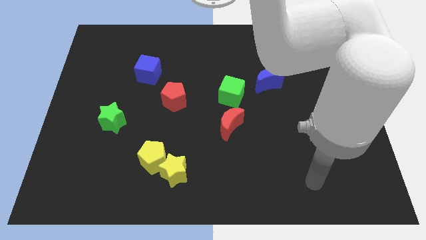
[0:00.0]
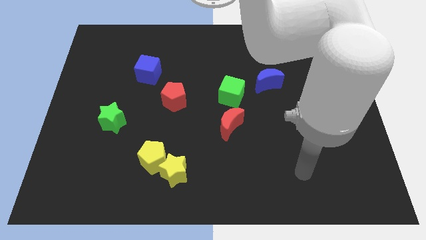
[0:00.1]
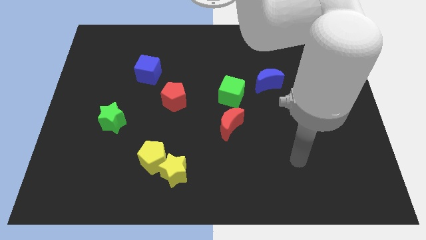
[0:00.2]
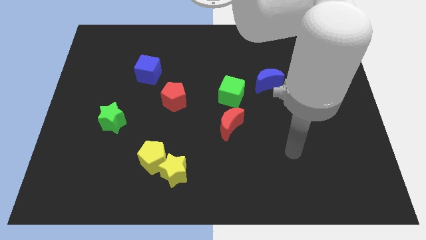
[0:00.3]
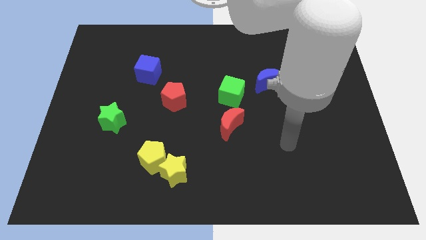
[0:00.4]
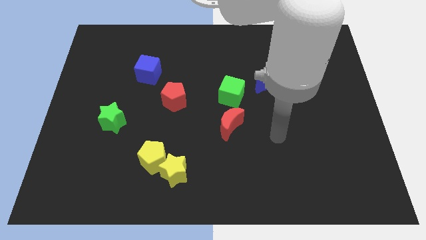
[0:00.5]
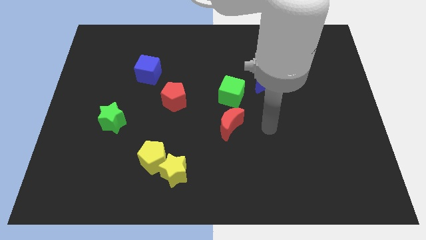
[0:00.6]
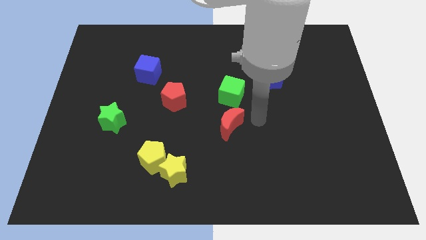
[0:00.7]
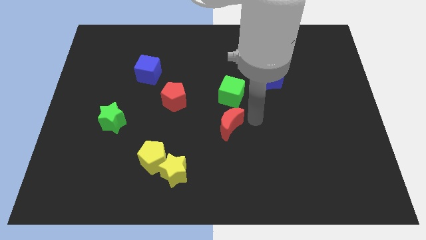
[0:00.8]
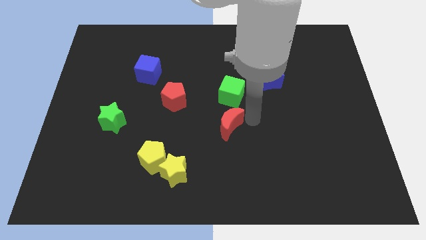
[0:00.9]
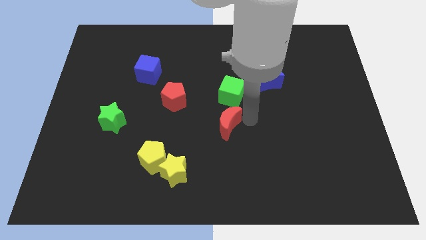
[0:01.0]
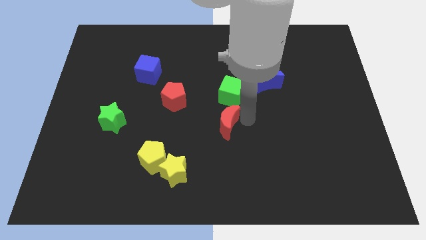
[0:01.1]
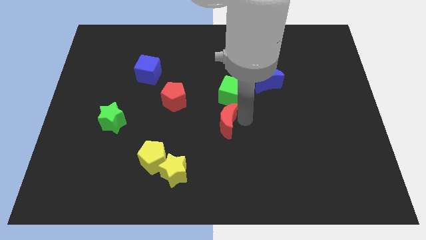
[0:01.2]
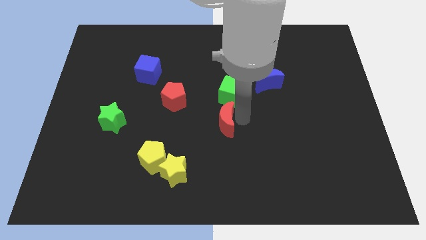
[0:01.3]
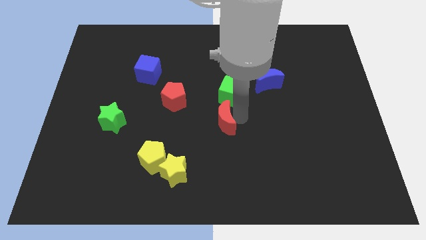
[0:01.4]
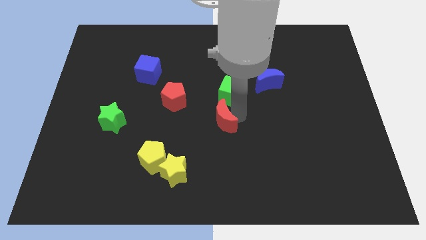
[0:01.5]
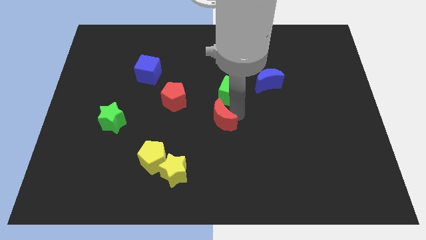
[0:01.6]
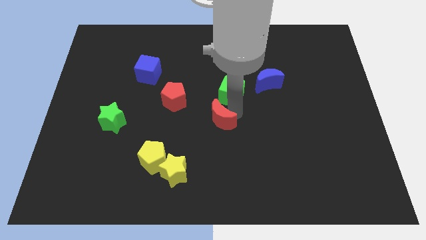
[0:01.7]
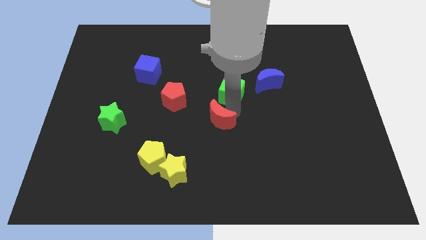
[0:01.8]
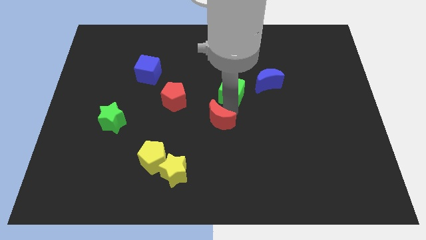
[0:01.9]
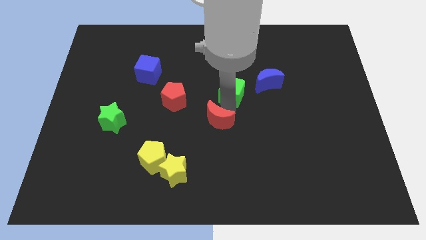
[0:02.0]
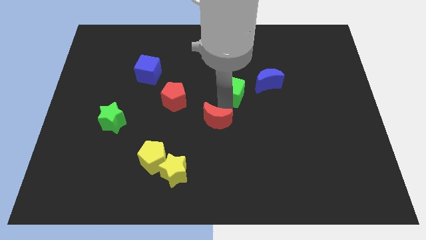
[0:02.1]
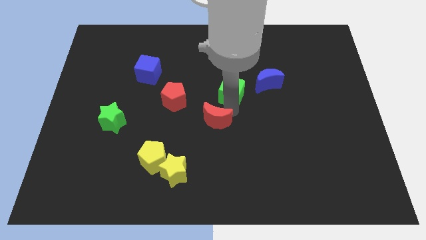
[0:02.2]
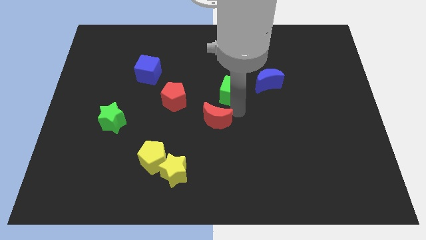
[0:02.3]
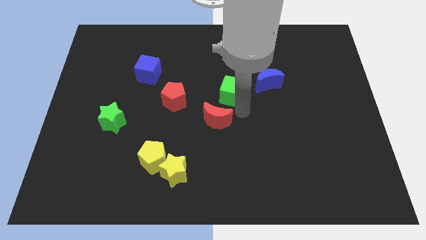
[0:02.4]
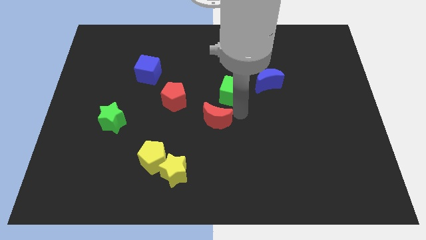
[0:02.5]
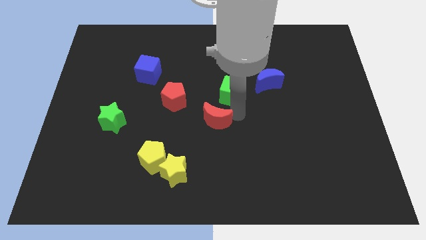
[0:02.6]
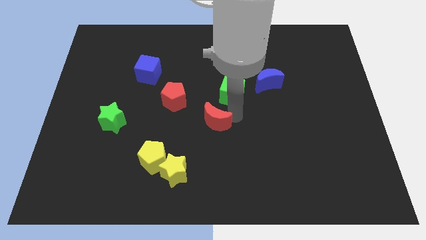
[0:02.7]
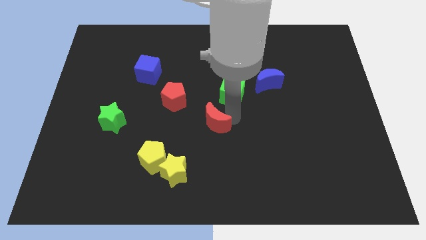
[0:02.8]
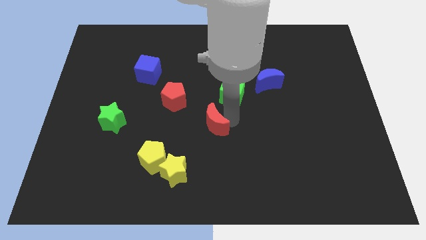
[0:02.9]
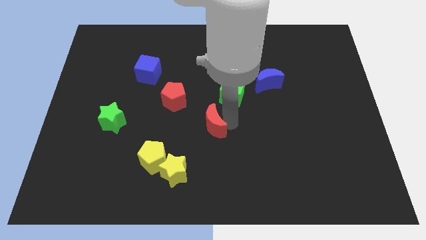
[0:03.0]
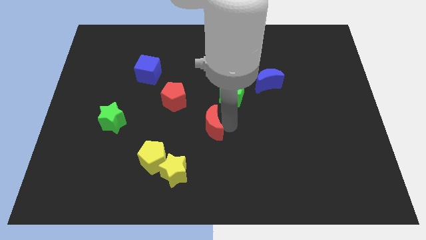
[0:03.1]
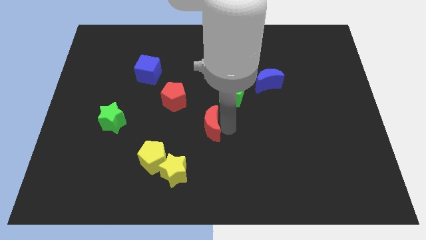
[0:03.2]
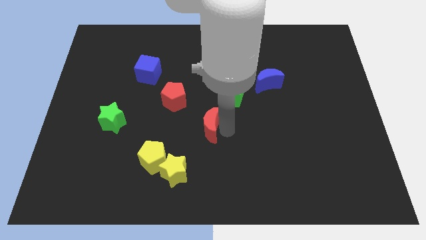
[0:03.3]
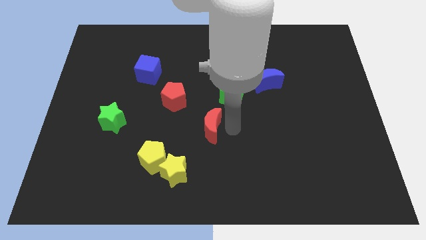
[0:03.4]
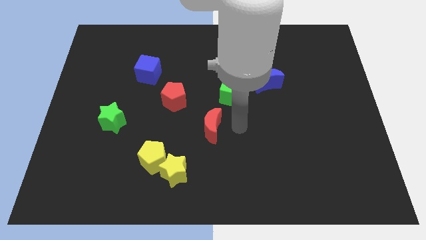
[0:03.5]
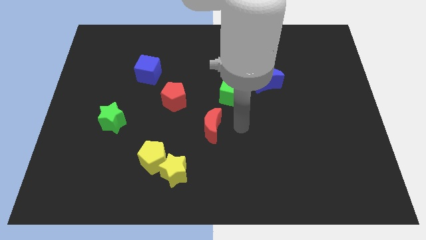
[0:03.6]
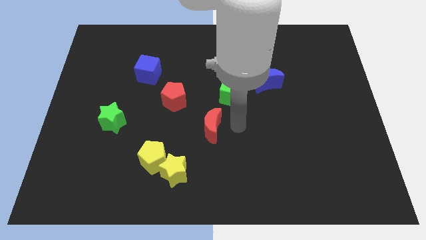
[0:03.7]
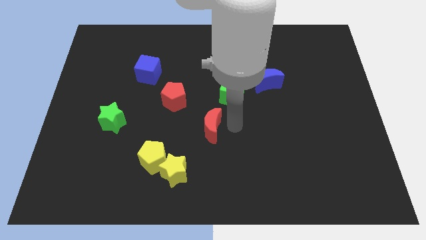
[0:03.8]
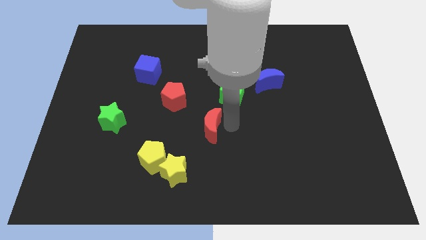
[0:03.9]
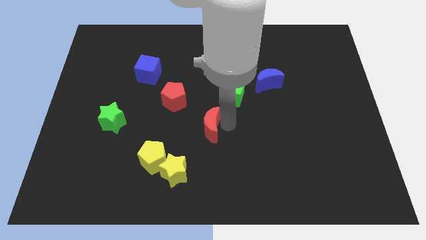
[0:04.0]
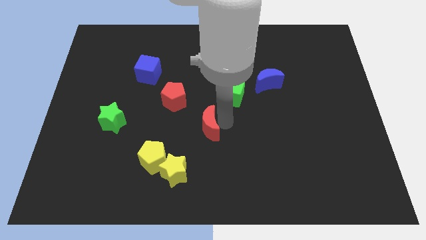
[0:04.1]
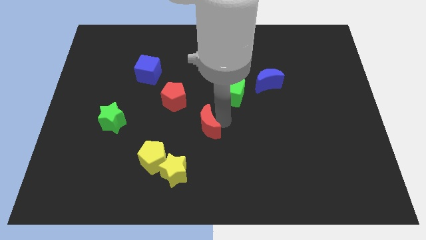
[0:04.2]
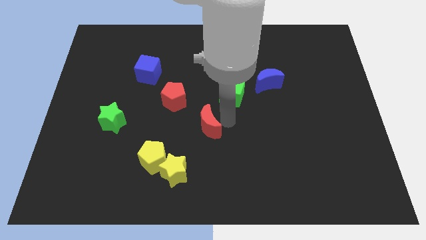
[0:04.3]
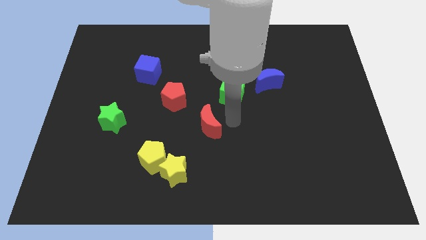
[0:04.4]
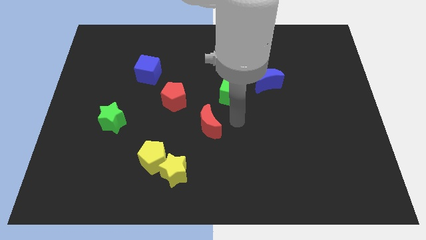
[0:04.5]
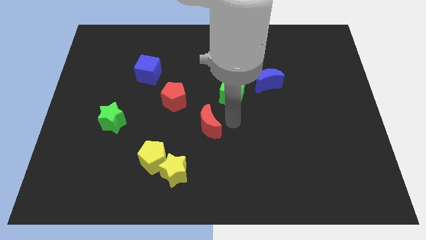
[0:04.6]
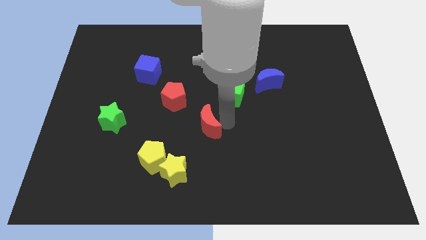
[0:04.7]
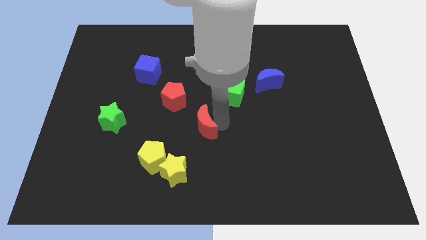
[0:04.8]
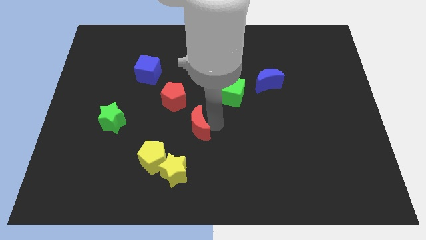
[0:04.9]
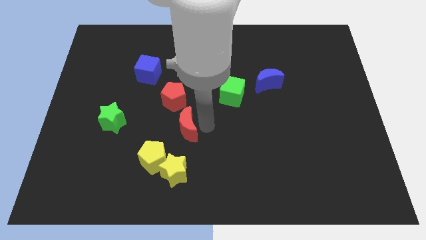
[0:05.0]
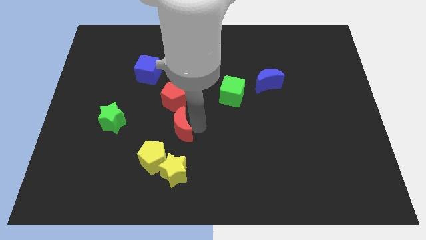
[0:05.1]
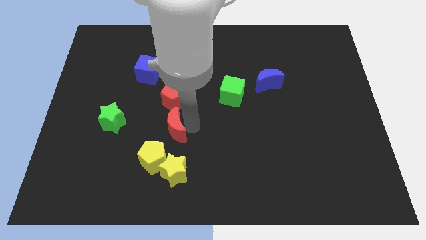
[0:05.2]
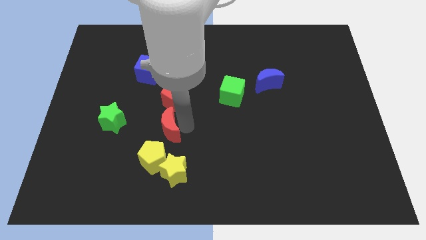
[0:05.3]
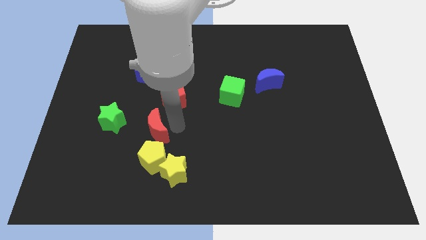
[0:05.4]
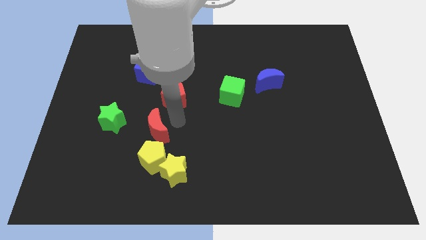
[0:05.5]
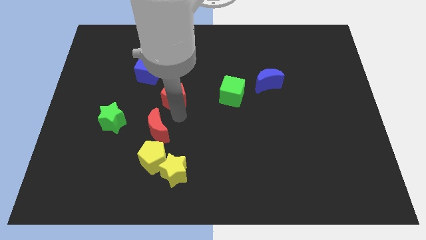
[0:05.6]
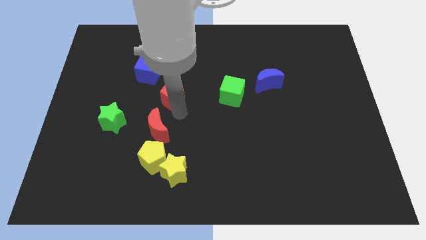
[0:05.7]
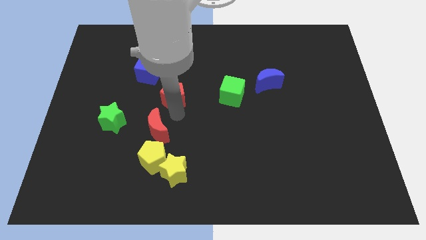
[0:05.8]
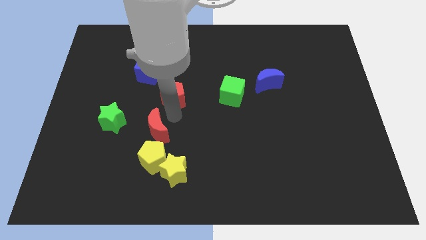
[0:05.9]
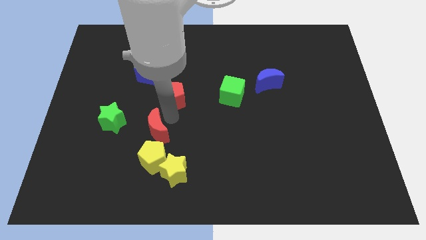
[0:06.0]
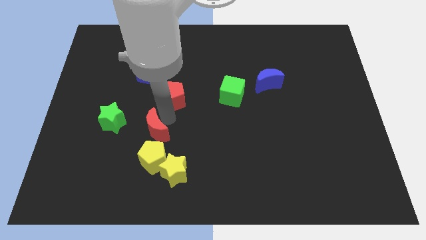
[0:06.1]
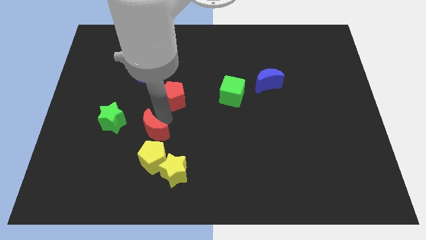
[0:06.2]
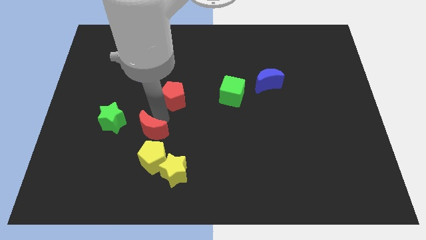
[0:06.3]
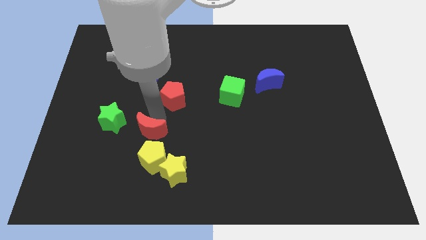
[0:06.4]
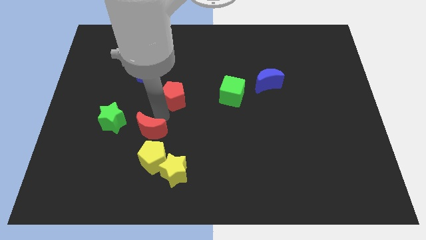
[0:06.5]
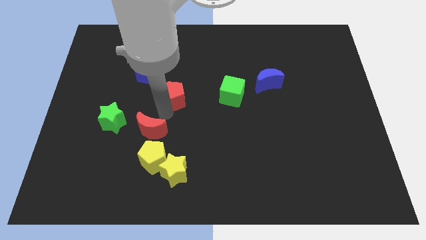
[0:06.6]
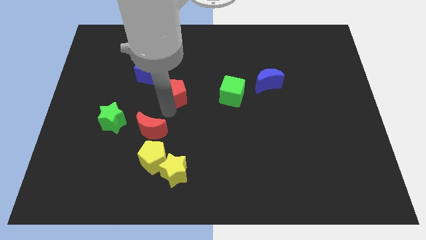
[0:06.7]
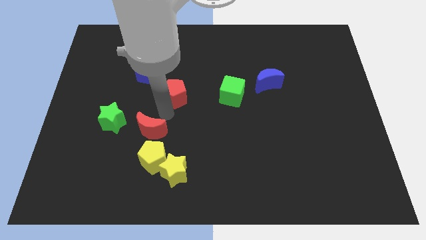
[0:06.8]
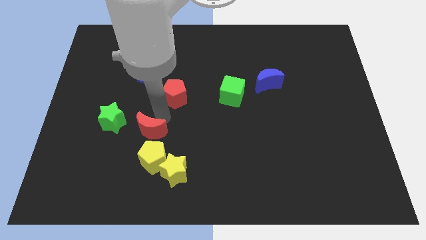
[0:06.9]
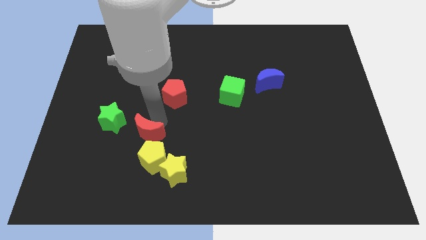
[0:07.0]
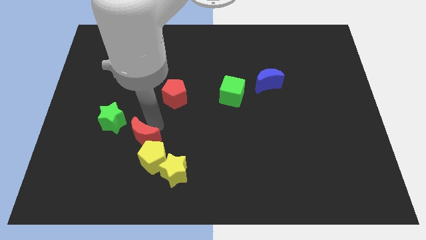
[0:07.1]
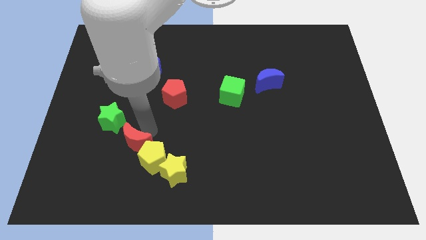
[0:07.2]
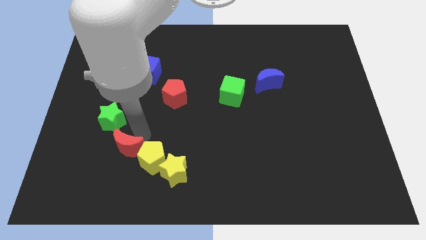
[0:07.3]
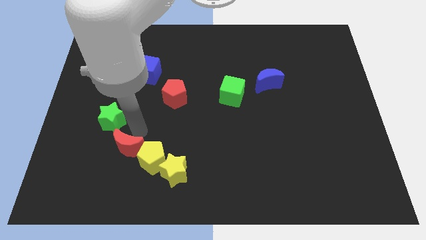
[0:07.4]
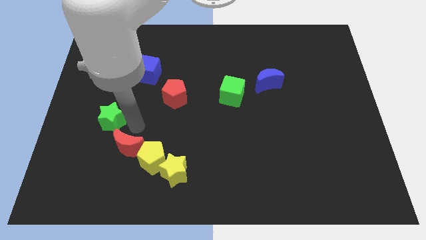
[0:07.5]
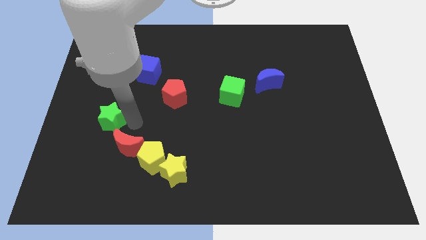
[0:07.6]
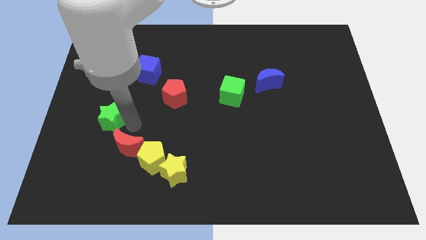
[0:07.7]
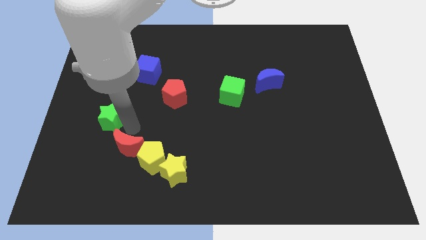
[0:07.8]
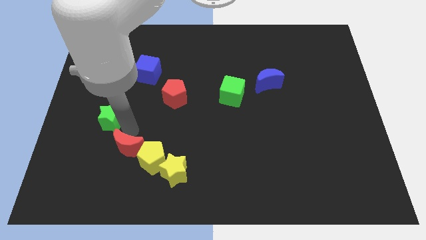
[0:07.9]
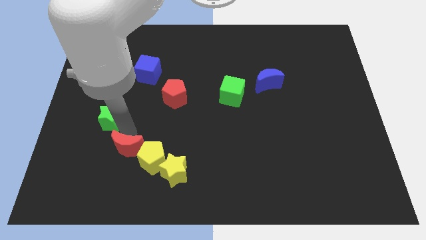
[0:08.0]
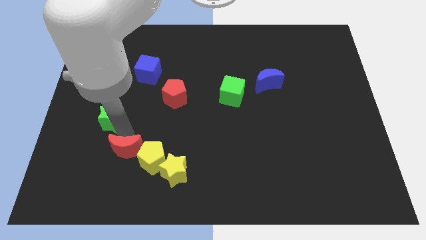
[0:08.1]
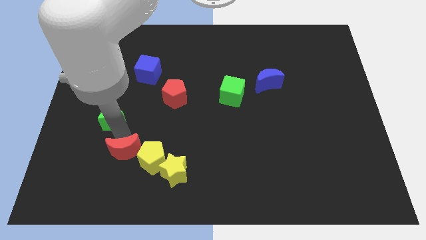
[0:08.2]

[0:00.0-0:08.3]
slide the red moon to the left side of the yellow star
